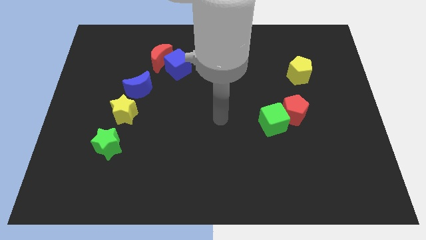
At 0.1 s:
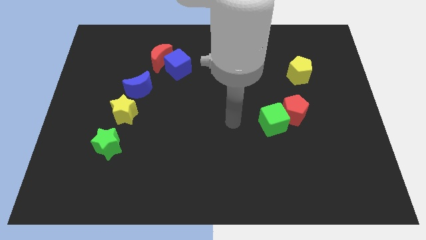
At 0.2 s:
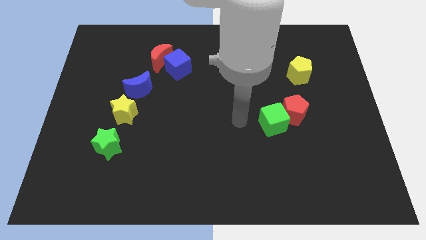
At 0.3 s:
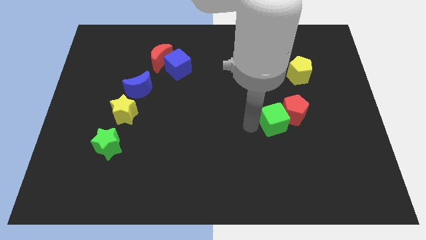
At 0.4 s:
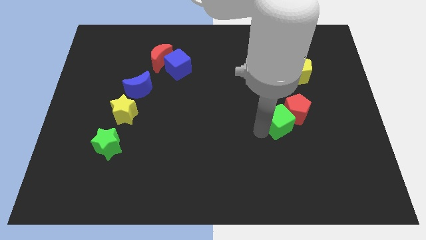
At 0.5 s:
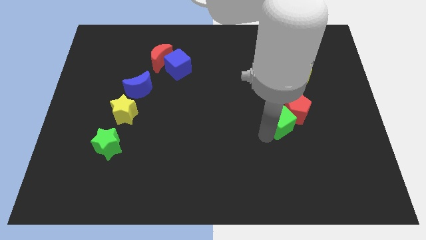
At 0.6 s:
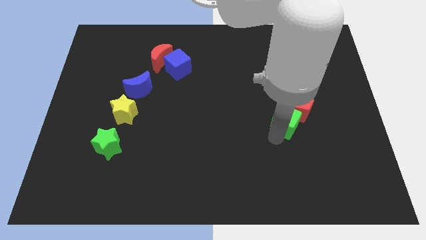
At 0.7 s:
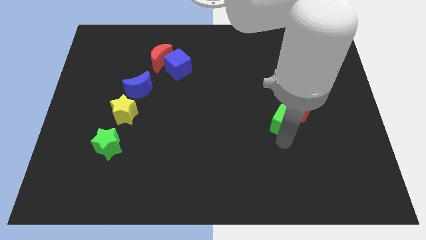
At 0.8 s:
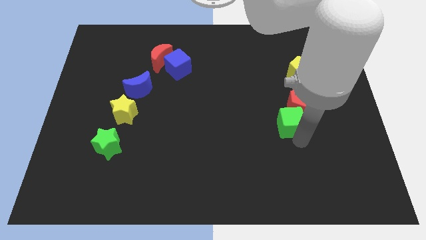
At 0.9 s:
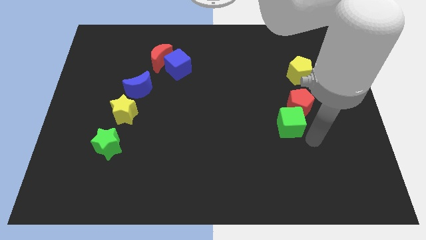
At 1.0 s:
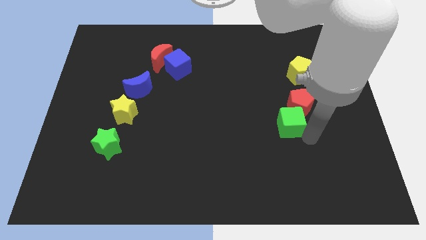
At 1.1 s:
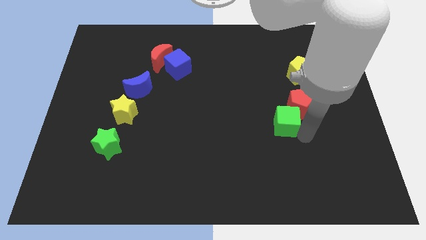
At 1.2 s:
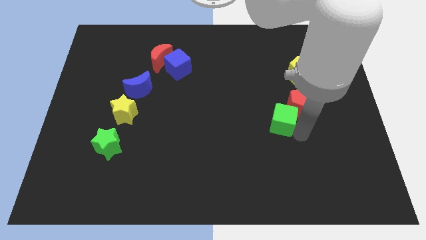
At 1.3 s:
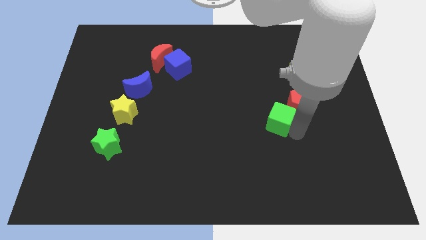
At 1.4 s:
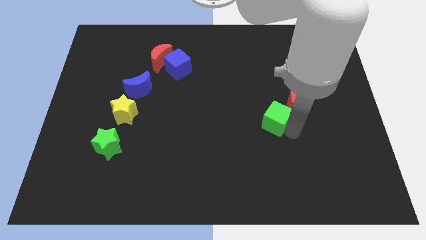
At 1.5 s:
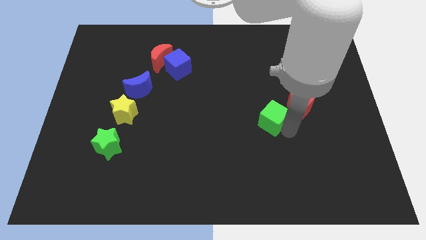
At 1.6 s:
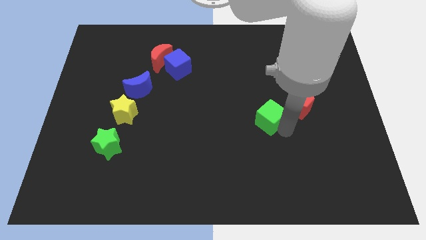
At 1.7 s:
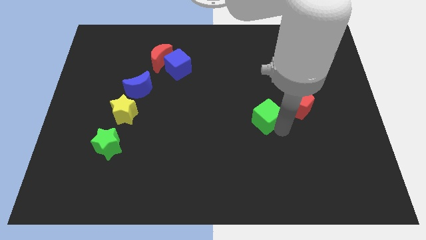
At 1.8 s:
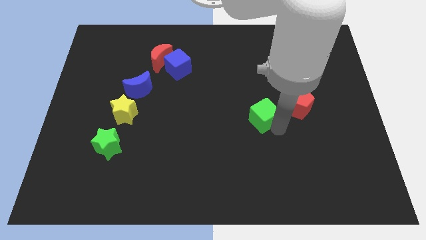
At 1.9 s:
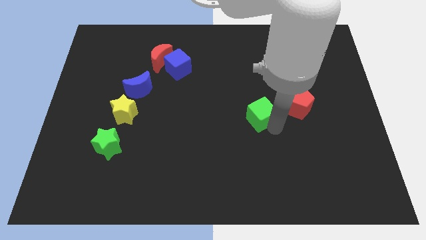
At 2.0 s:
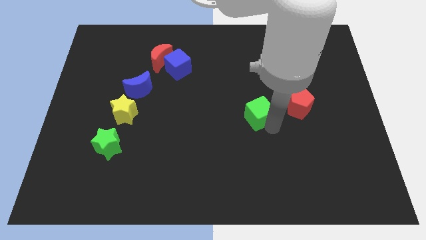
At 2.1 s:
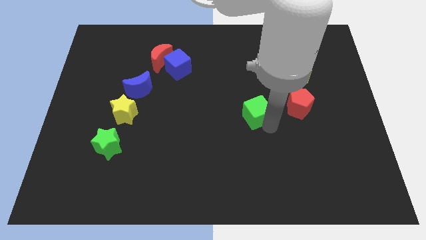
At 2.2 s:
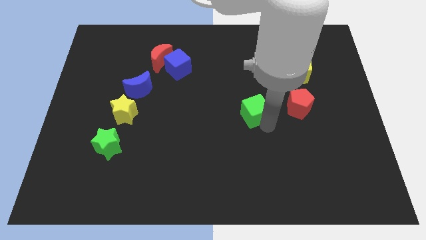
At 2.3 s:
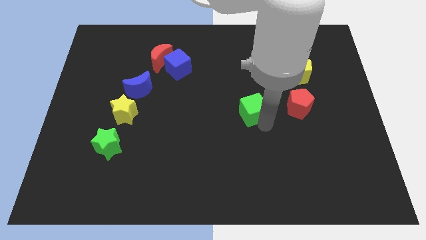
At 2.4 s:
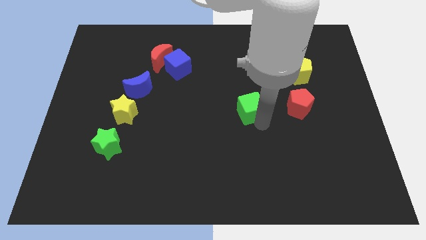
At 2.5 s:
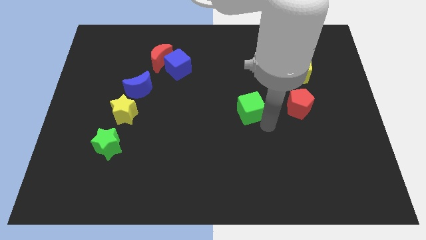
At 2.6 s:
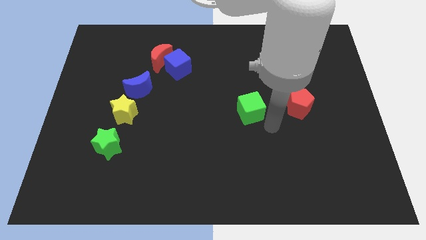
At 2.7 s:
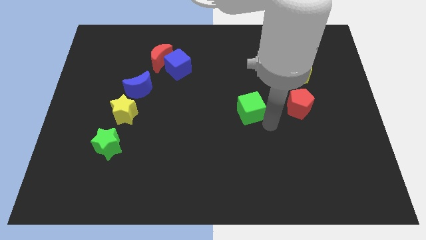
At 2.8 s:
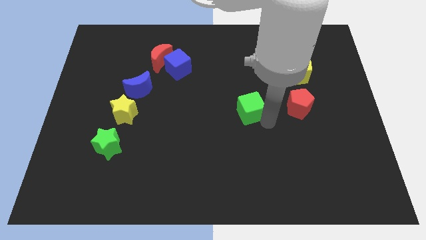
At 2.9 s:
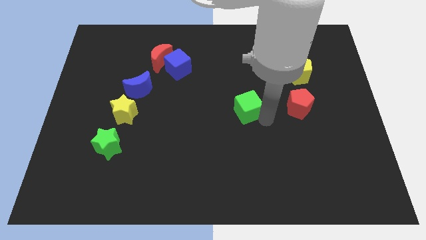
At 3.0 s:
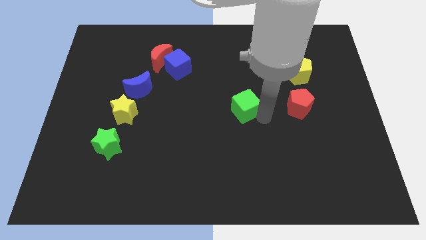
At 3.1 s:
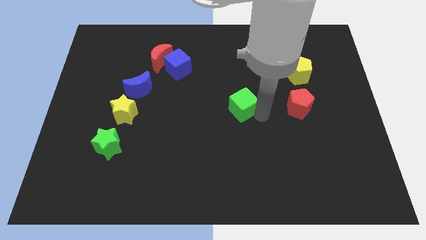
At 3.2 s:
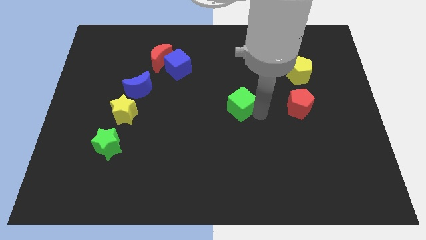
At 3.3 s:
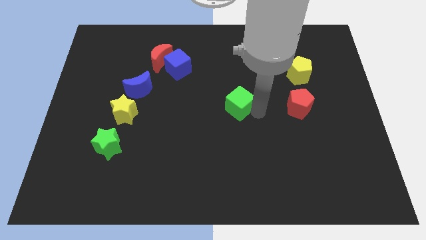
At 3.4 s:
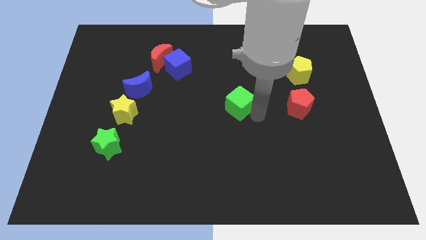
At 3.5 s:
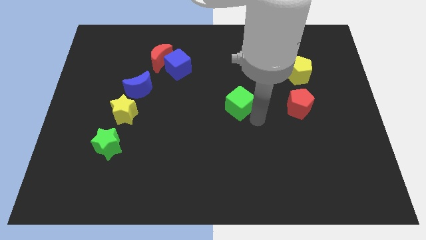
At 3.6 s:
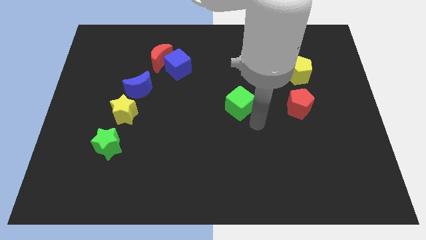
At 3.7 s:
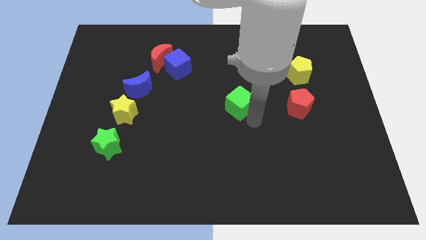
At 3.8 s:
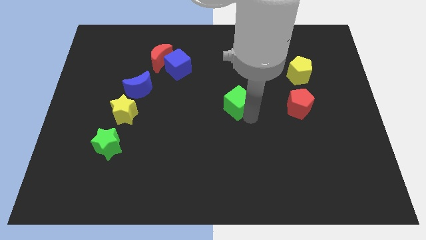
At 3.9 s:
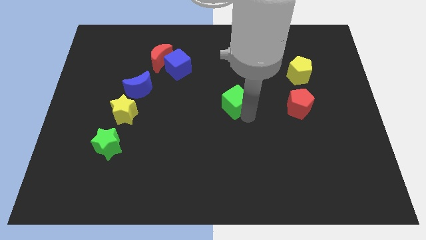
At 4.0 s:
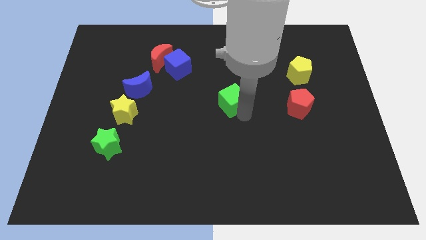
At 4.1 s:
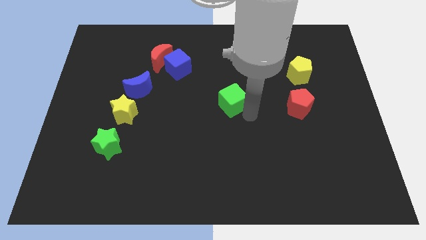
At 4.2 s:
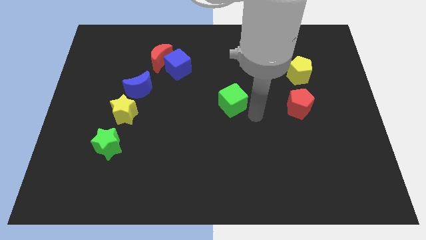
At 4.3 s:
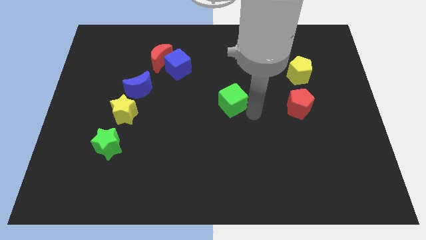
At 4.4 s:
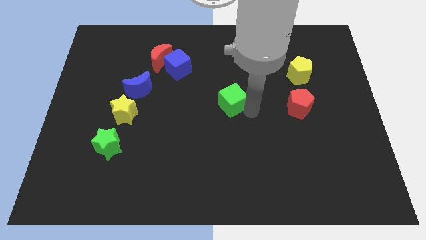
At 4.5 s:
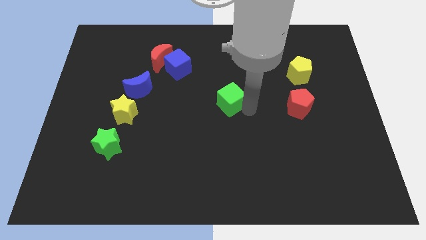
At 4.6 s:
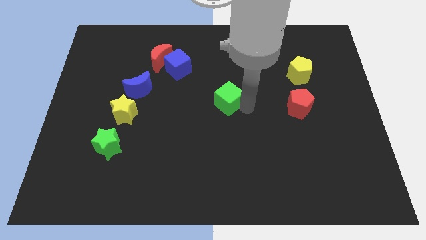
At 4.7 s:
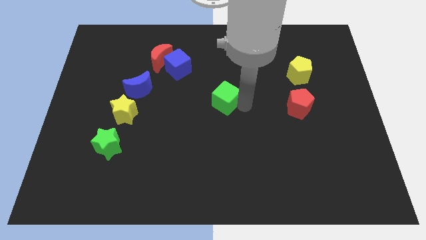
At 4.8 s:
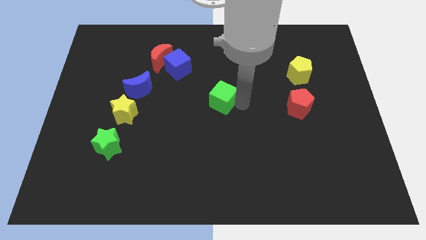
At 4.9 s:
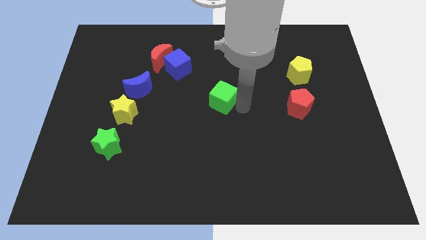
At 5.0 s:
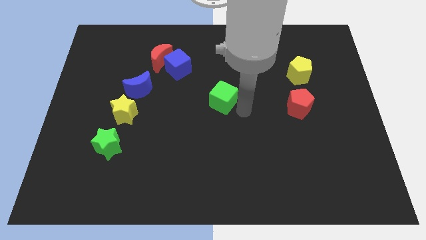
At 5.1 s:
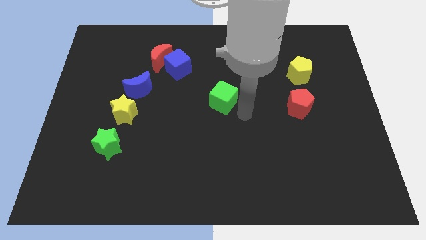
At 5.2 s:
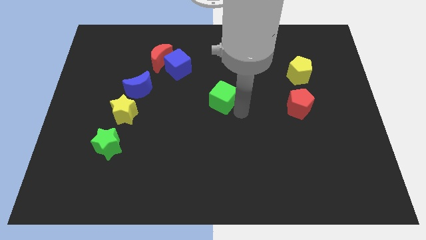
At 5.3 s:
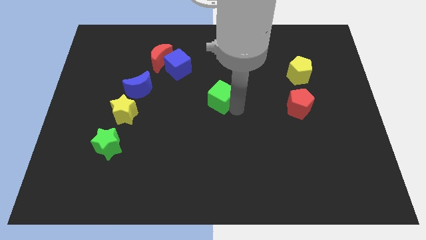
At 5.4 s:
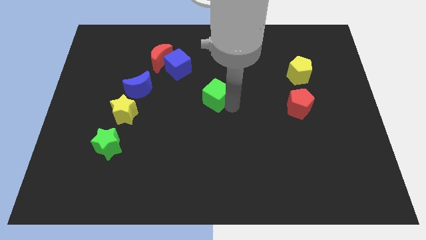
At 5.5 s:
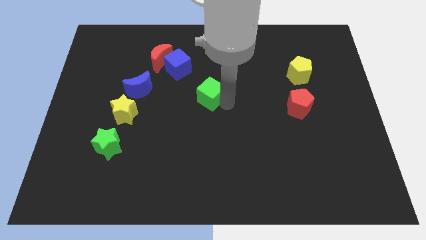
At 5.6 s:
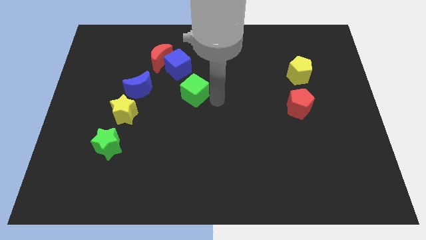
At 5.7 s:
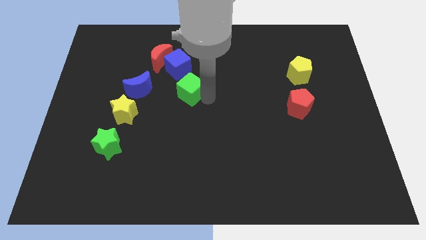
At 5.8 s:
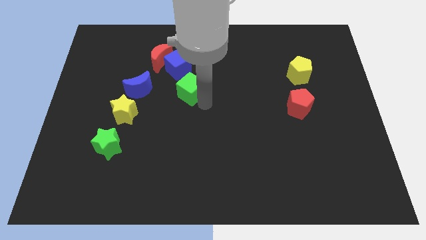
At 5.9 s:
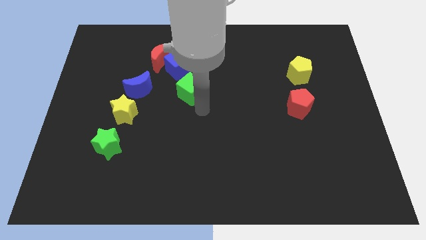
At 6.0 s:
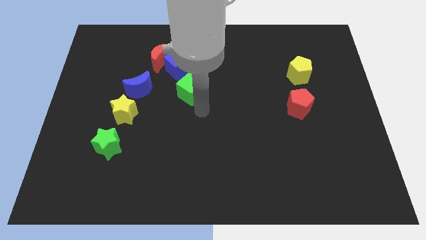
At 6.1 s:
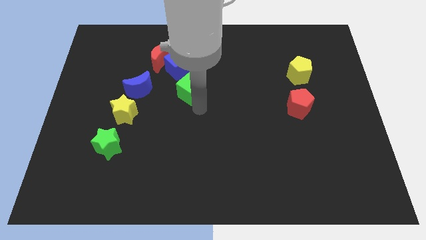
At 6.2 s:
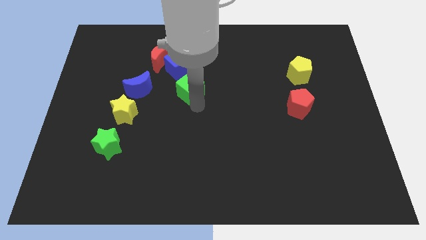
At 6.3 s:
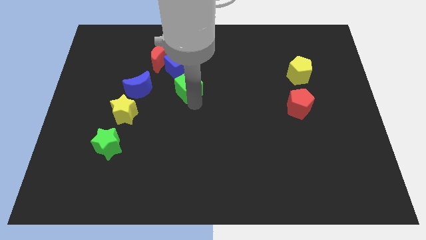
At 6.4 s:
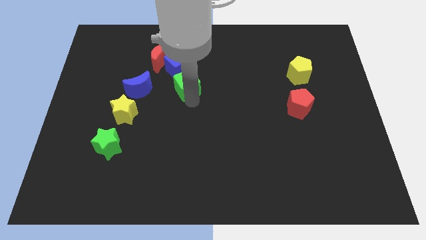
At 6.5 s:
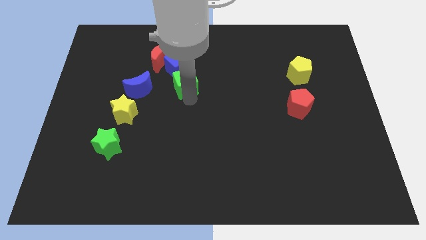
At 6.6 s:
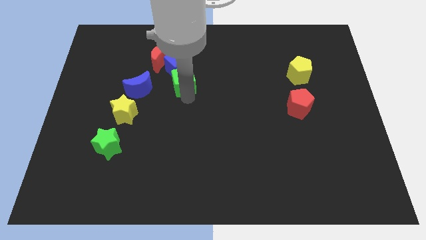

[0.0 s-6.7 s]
put the green cube to the blue cube

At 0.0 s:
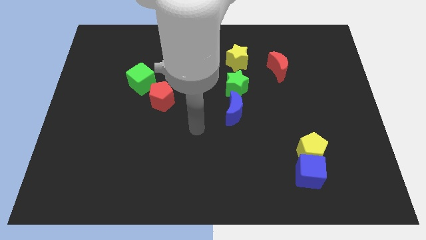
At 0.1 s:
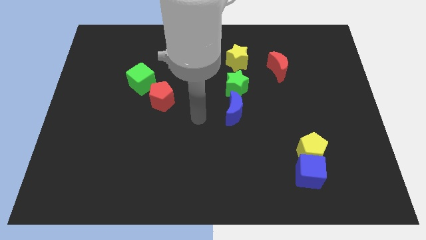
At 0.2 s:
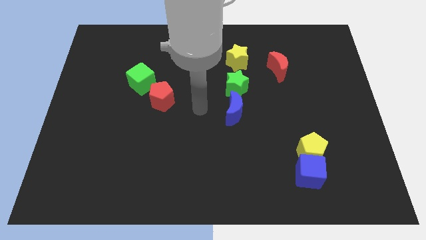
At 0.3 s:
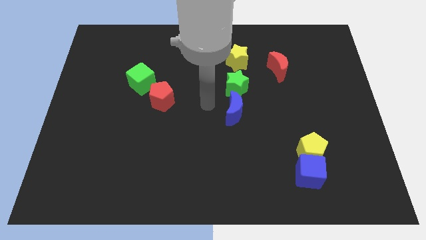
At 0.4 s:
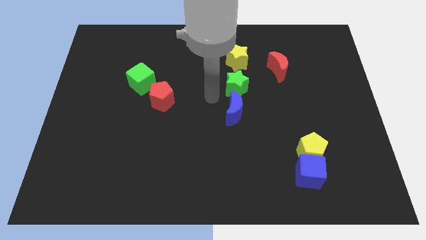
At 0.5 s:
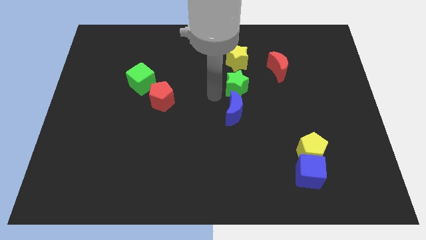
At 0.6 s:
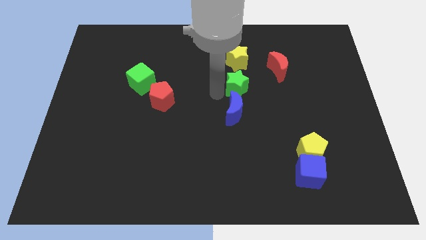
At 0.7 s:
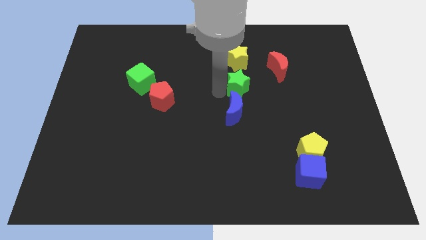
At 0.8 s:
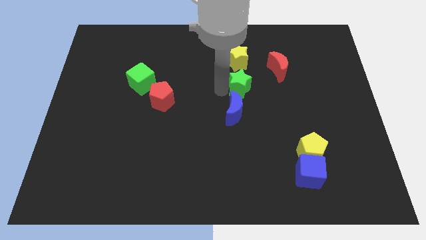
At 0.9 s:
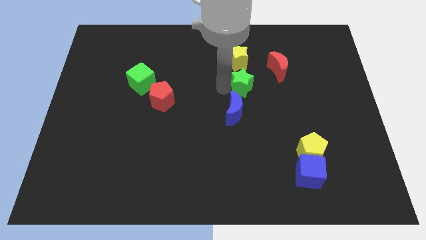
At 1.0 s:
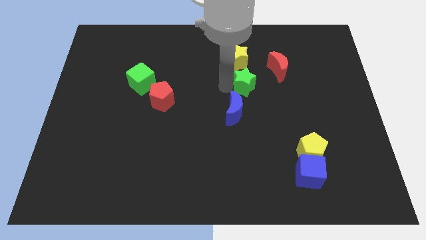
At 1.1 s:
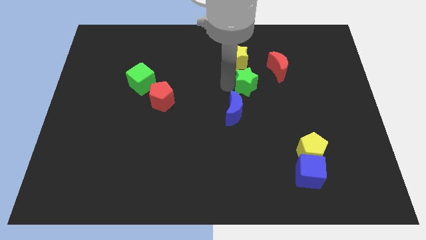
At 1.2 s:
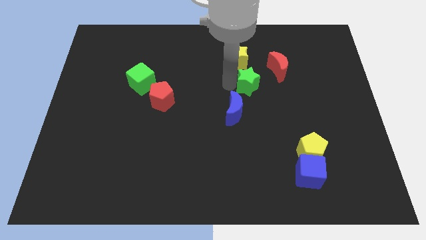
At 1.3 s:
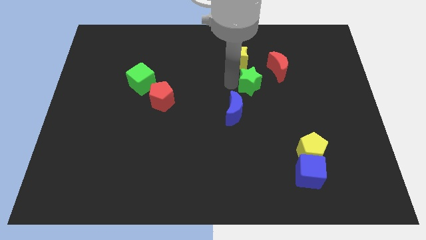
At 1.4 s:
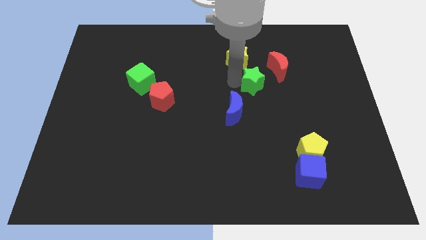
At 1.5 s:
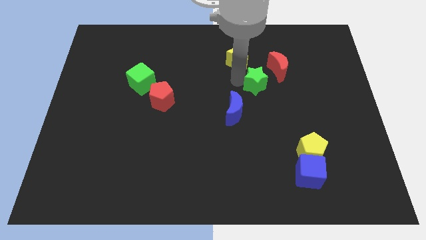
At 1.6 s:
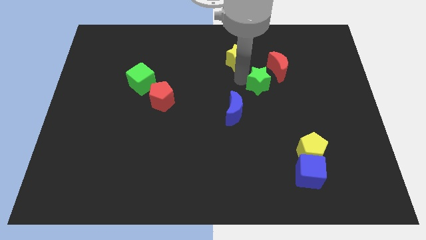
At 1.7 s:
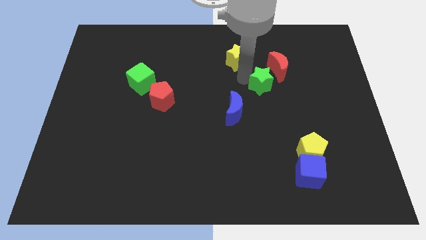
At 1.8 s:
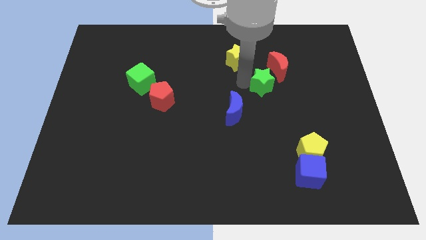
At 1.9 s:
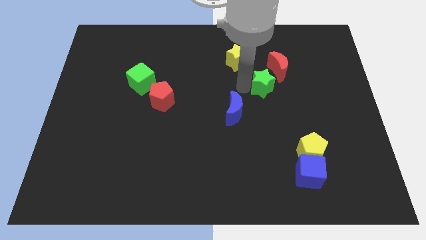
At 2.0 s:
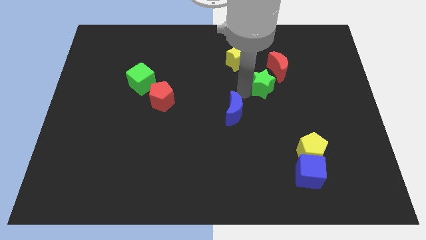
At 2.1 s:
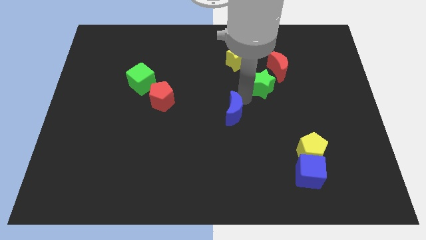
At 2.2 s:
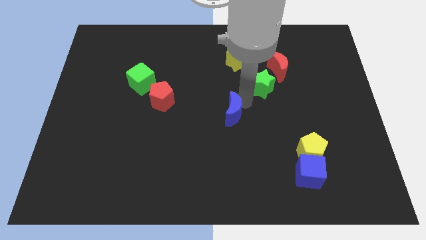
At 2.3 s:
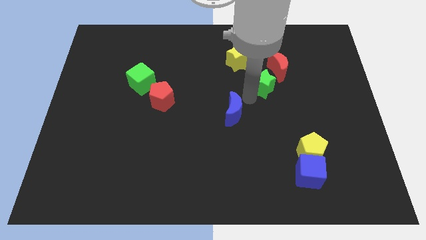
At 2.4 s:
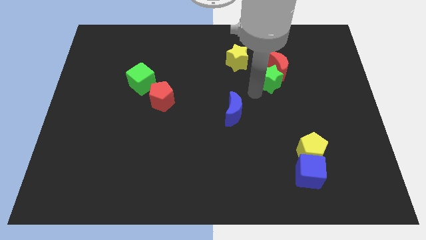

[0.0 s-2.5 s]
put the green star to the red moon
